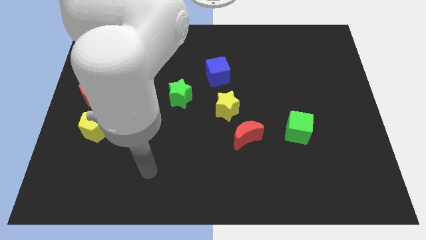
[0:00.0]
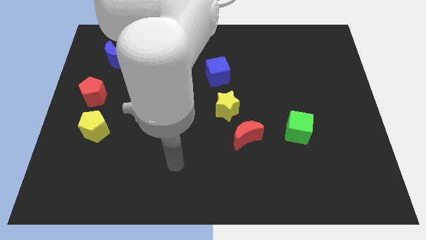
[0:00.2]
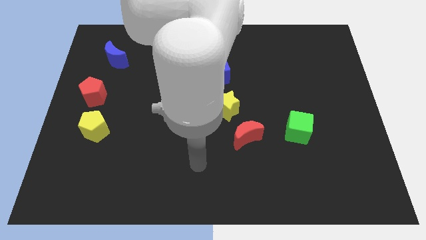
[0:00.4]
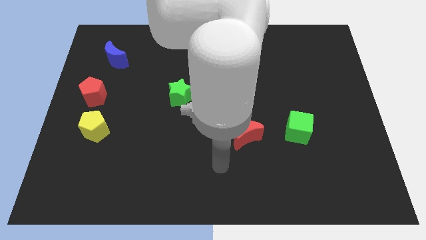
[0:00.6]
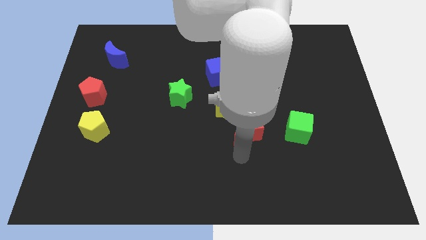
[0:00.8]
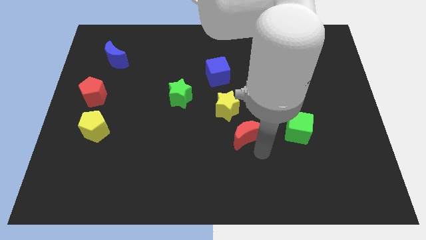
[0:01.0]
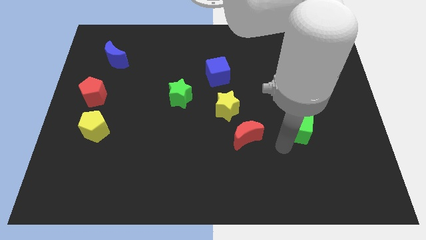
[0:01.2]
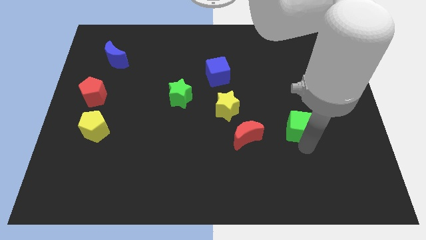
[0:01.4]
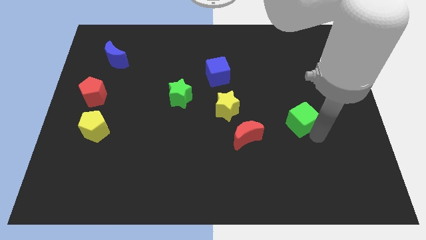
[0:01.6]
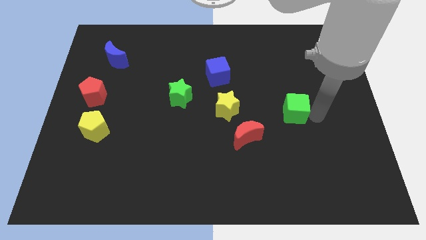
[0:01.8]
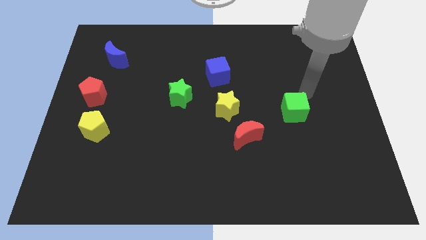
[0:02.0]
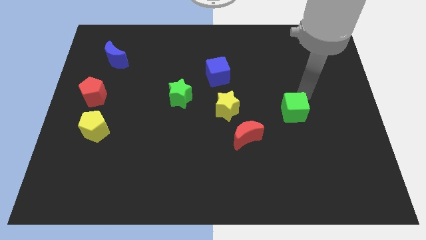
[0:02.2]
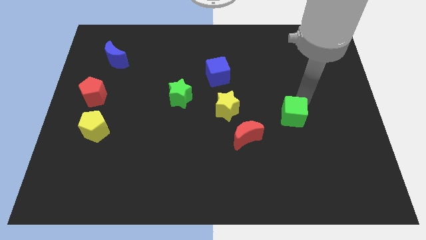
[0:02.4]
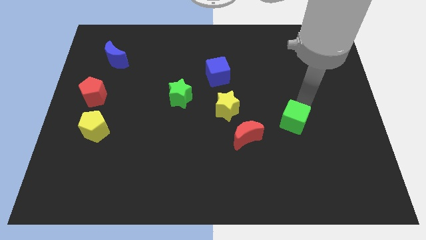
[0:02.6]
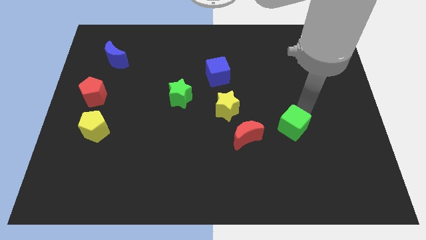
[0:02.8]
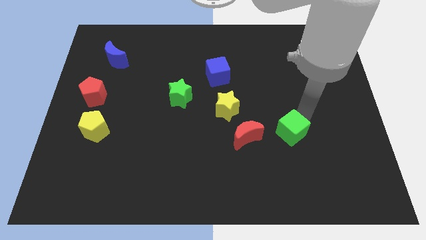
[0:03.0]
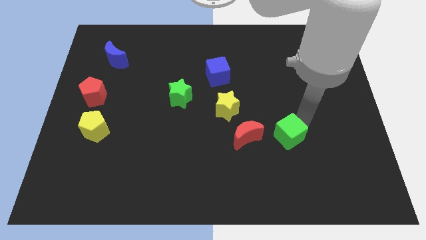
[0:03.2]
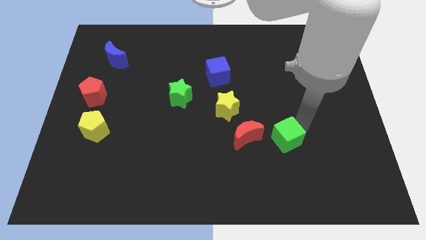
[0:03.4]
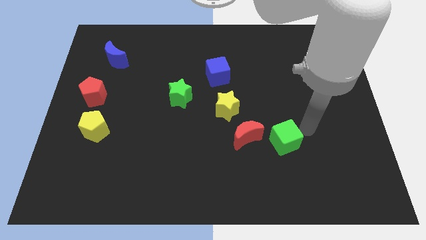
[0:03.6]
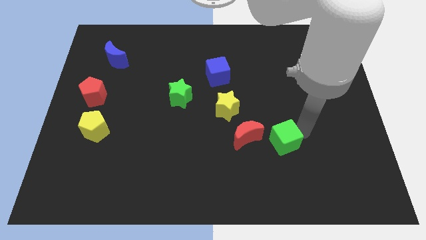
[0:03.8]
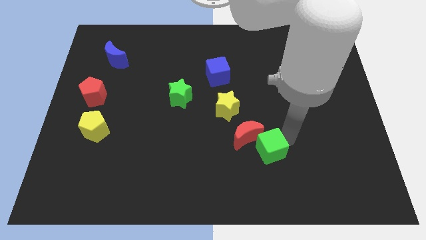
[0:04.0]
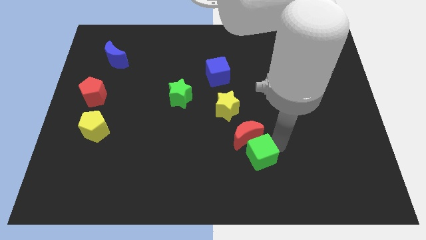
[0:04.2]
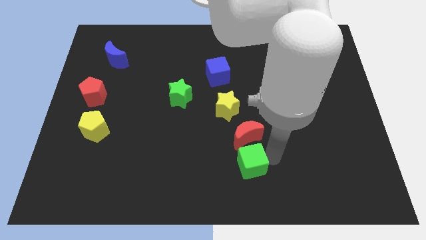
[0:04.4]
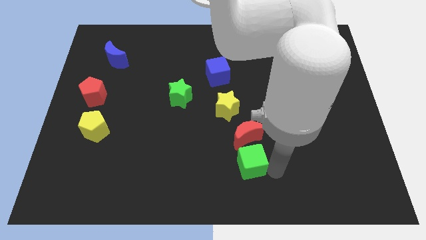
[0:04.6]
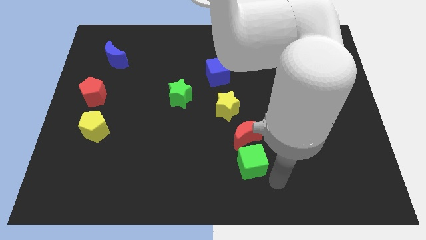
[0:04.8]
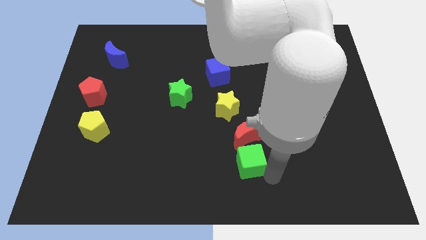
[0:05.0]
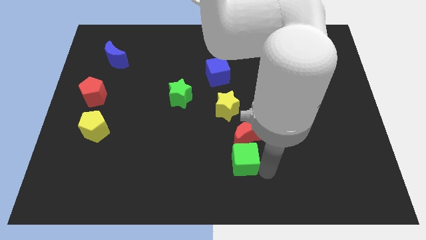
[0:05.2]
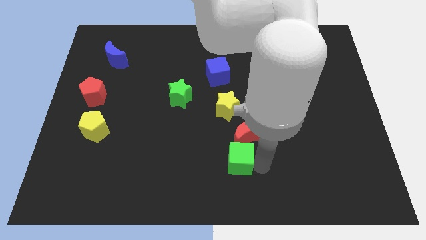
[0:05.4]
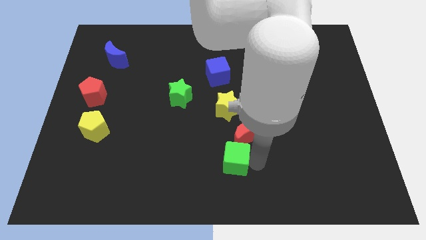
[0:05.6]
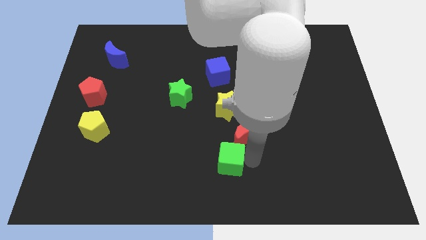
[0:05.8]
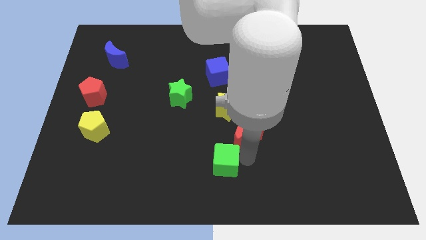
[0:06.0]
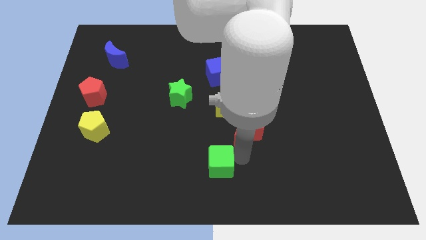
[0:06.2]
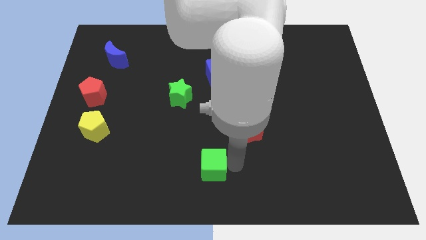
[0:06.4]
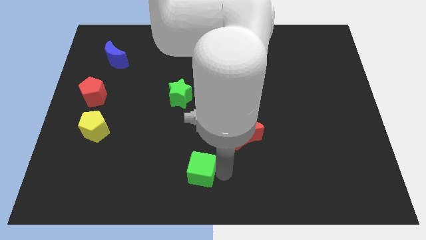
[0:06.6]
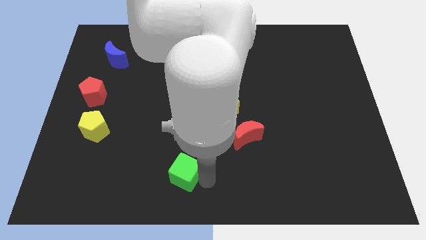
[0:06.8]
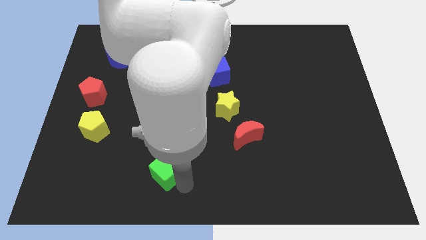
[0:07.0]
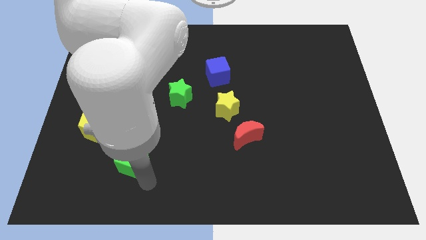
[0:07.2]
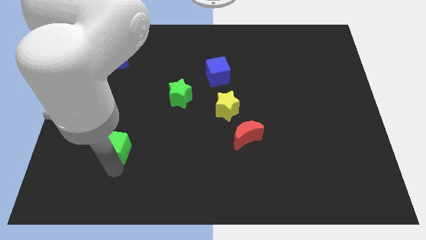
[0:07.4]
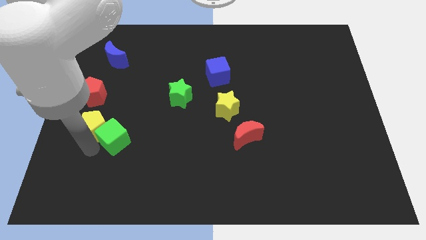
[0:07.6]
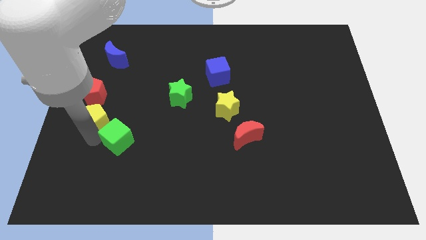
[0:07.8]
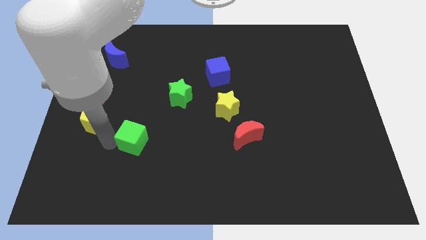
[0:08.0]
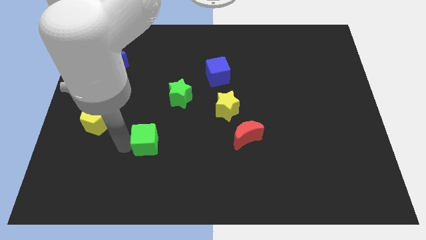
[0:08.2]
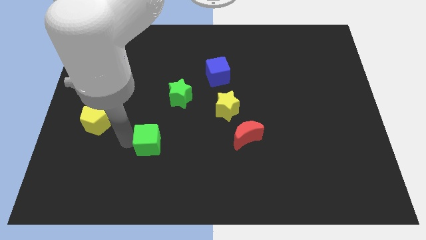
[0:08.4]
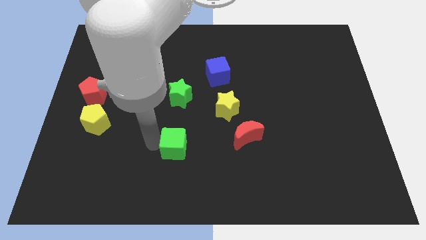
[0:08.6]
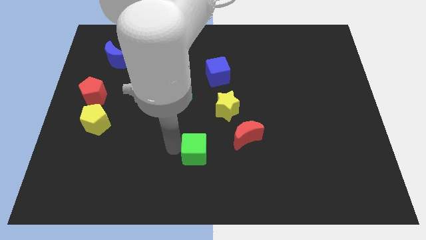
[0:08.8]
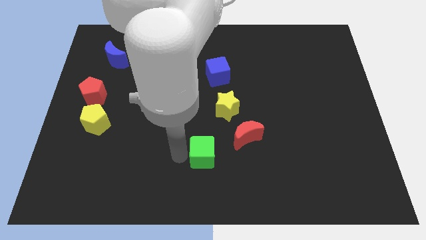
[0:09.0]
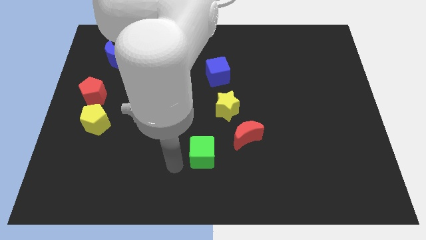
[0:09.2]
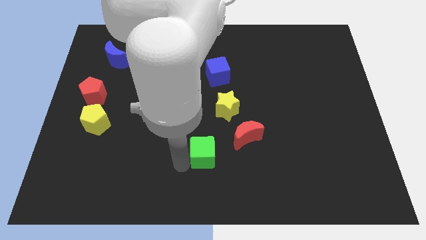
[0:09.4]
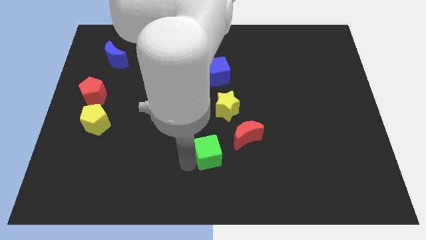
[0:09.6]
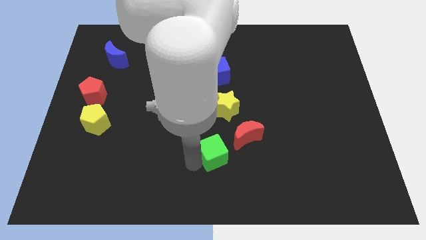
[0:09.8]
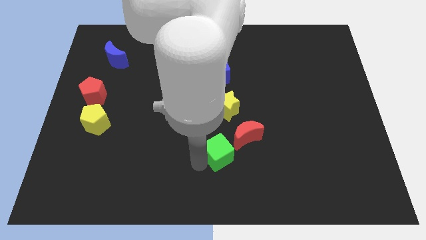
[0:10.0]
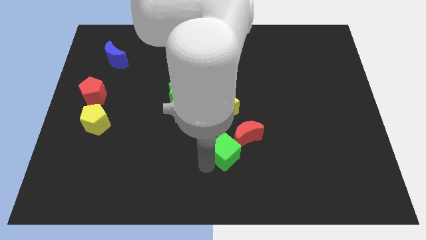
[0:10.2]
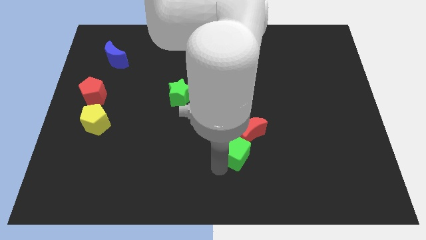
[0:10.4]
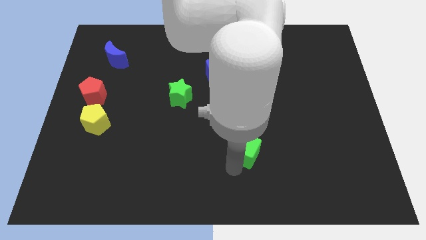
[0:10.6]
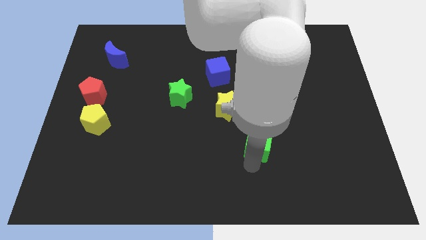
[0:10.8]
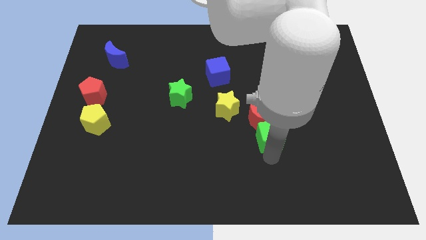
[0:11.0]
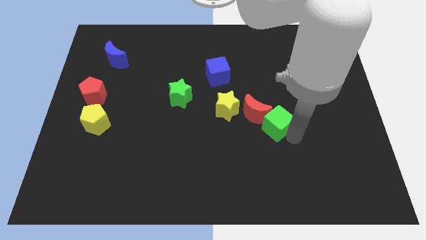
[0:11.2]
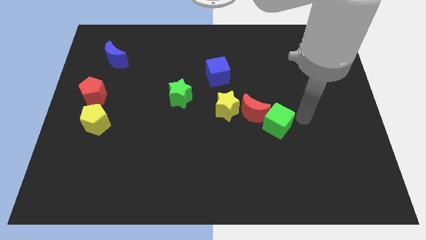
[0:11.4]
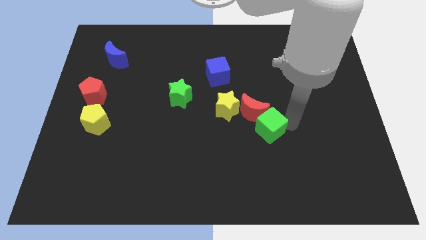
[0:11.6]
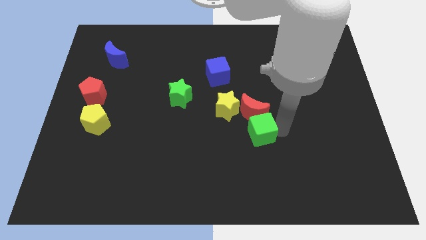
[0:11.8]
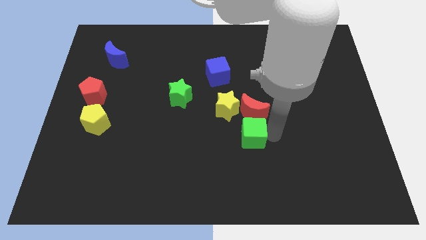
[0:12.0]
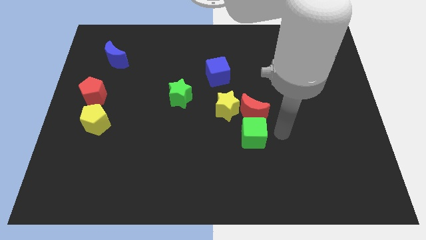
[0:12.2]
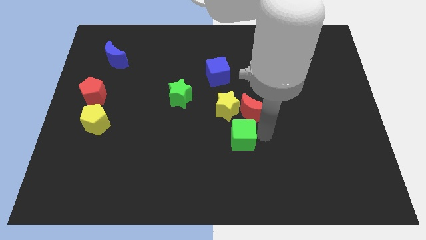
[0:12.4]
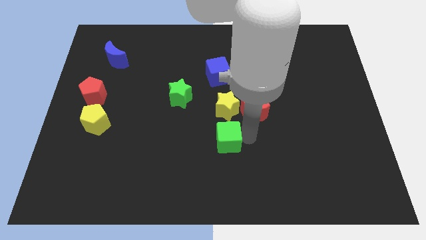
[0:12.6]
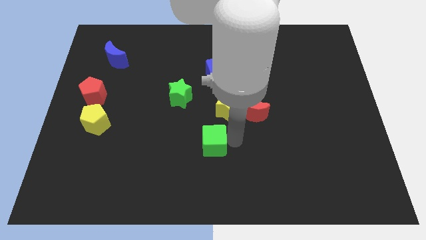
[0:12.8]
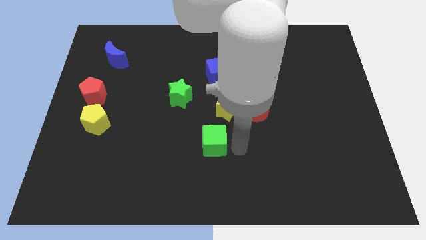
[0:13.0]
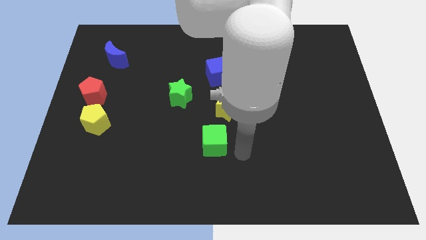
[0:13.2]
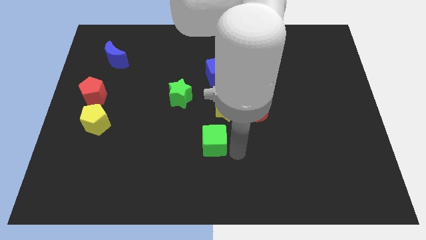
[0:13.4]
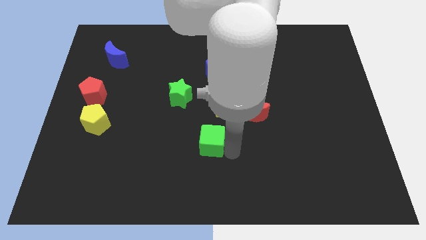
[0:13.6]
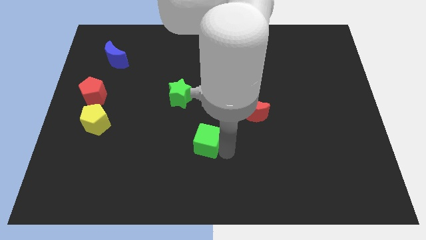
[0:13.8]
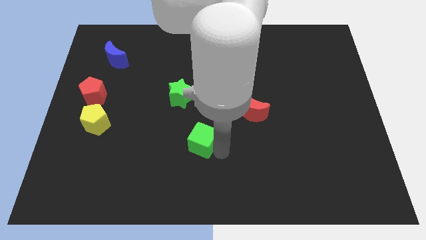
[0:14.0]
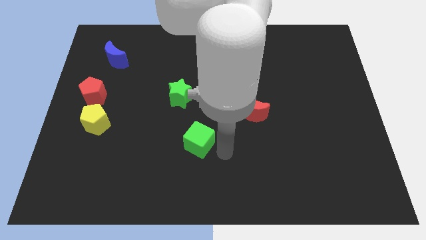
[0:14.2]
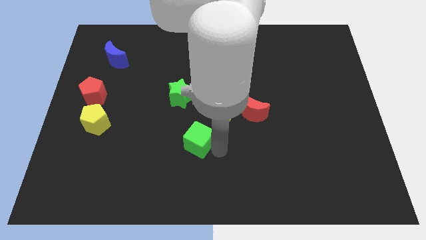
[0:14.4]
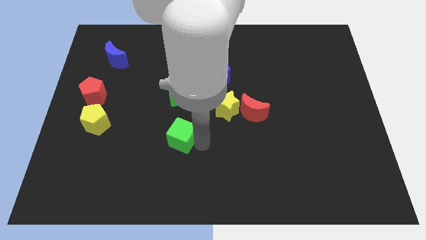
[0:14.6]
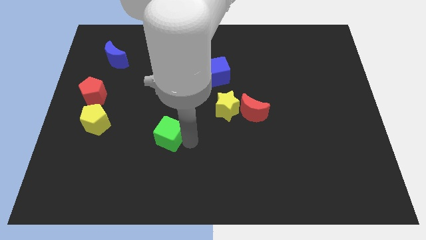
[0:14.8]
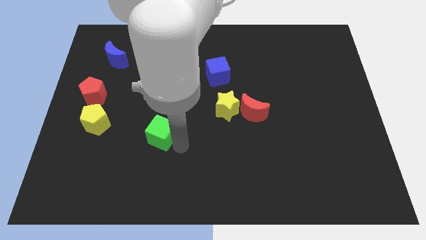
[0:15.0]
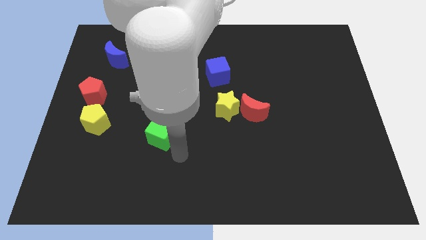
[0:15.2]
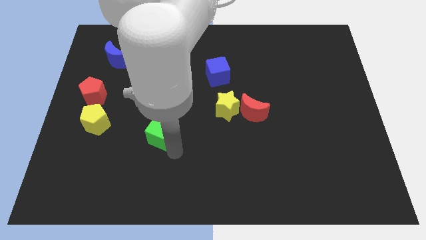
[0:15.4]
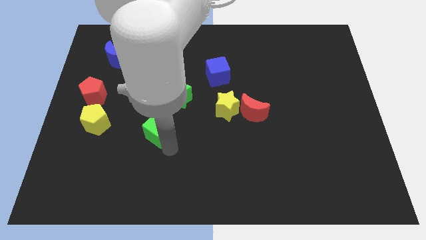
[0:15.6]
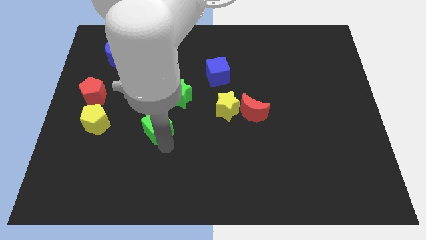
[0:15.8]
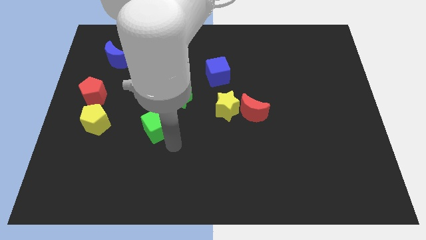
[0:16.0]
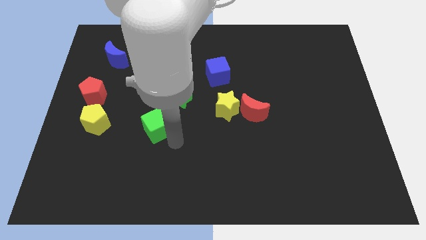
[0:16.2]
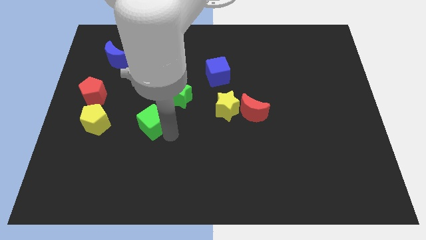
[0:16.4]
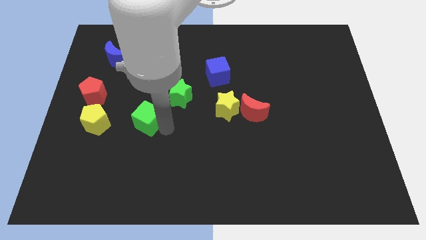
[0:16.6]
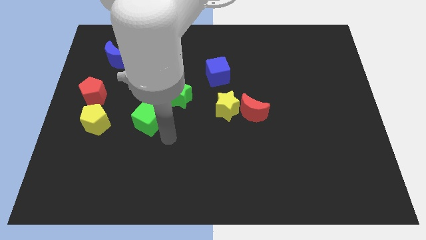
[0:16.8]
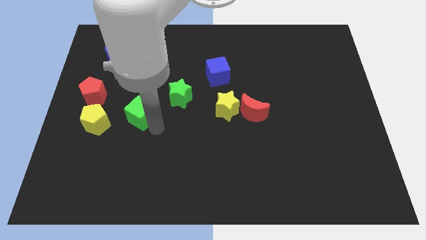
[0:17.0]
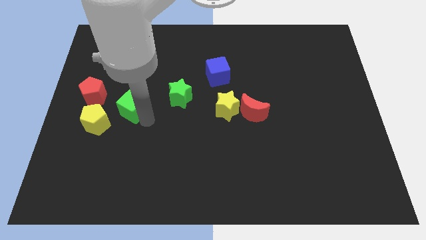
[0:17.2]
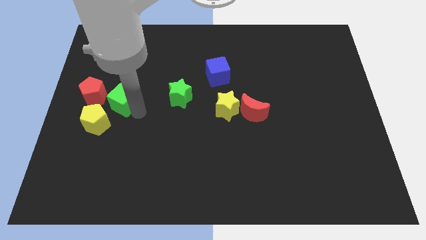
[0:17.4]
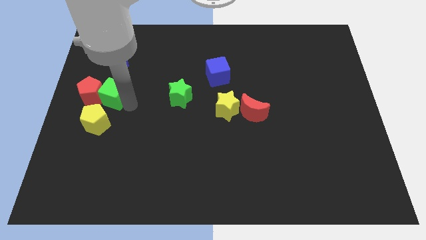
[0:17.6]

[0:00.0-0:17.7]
move the green cube towards the red pentagon
